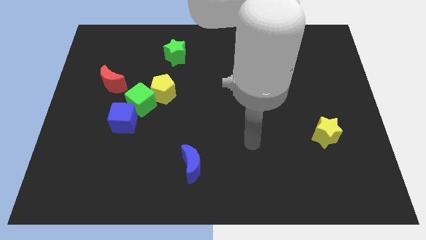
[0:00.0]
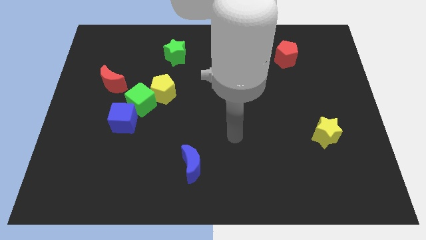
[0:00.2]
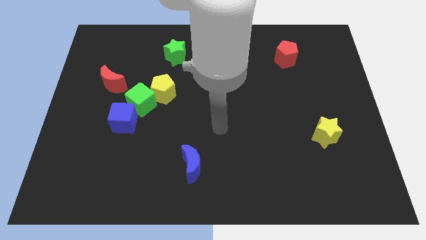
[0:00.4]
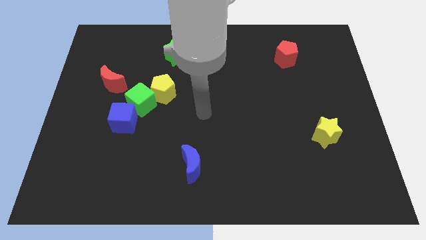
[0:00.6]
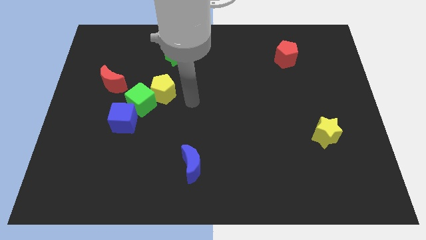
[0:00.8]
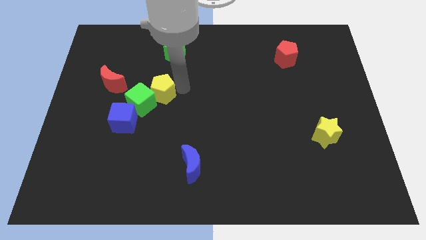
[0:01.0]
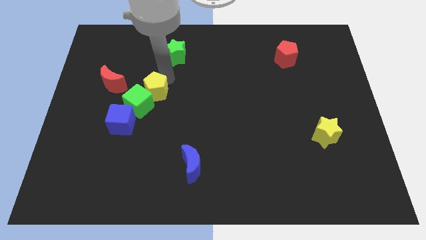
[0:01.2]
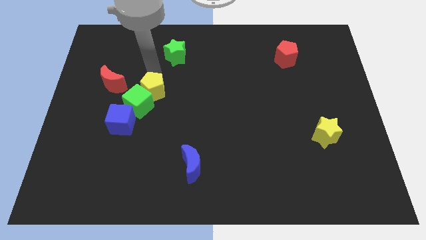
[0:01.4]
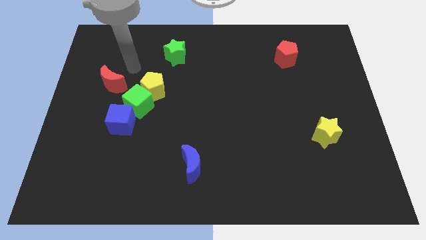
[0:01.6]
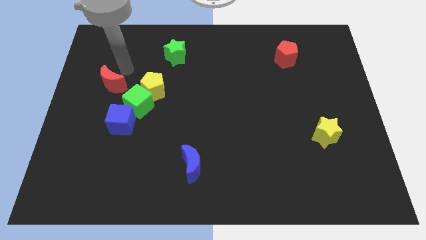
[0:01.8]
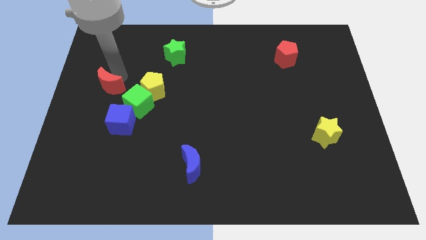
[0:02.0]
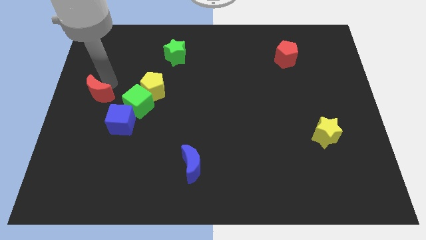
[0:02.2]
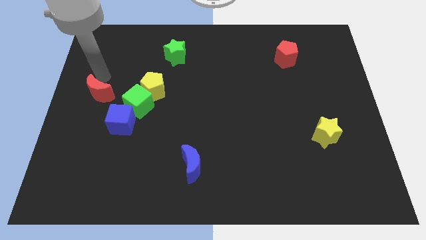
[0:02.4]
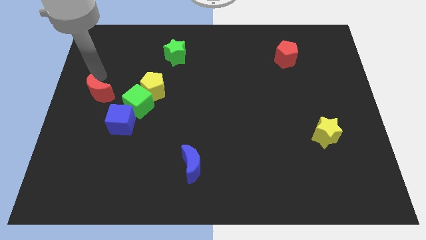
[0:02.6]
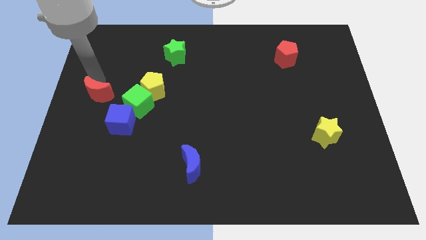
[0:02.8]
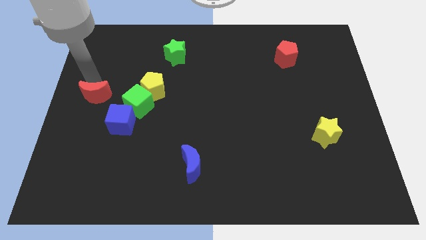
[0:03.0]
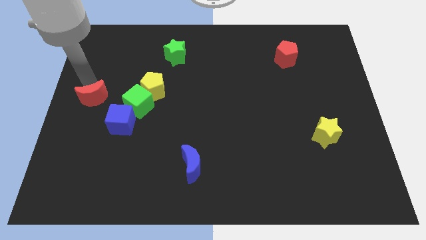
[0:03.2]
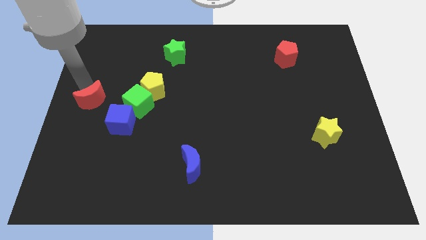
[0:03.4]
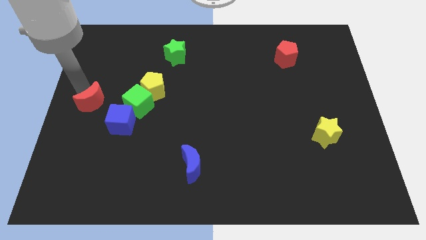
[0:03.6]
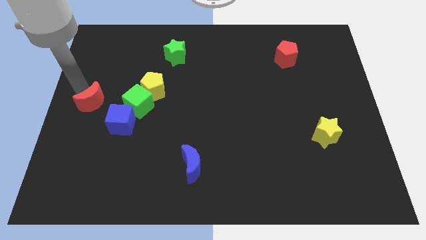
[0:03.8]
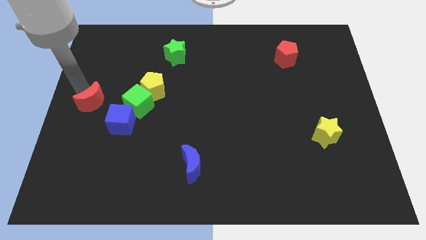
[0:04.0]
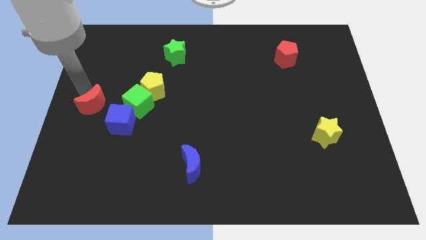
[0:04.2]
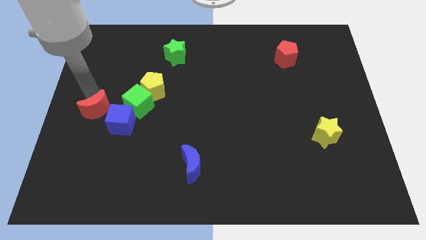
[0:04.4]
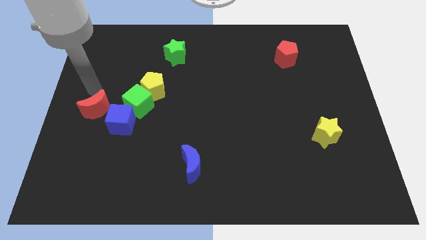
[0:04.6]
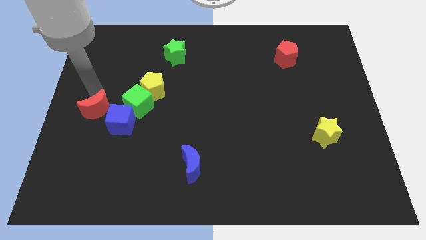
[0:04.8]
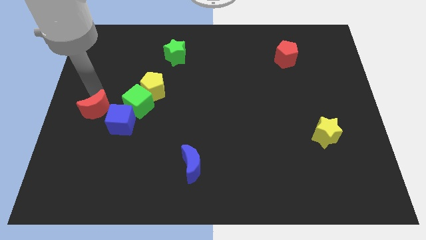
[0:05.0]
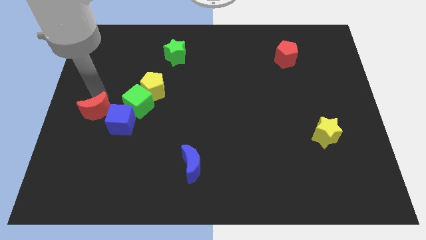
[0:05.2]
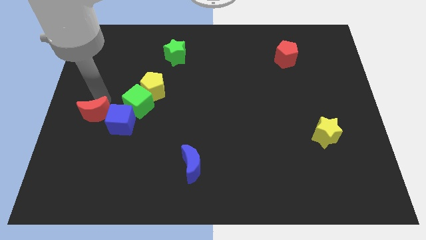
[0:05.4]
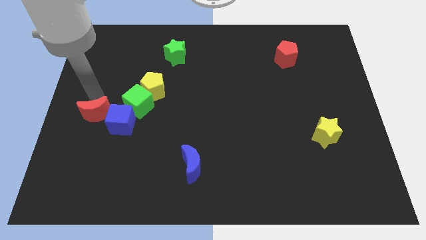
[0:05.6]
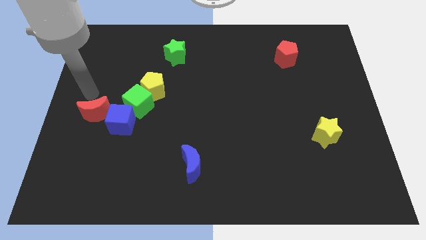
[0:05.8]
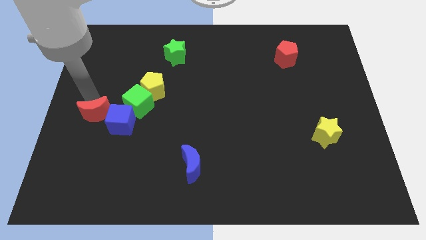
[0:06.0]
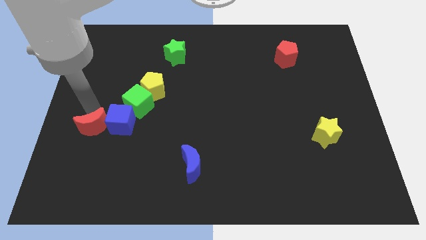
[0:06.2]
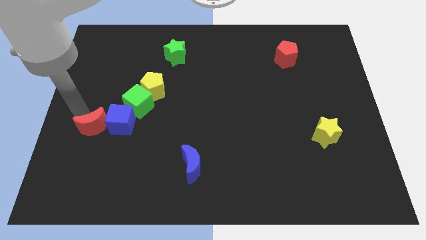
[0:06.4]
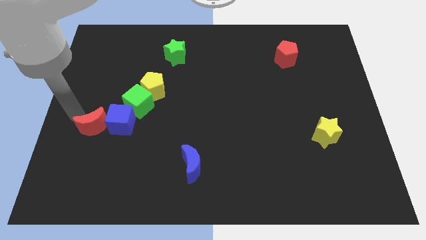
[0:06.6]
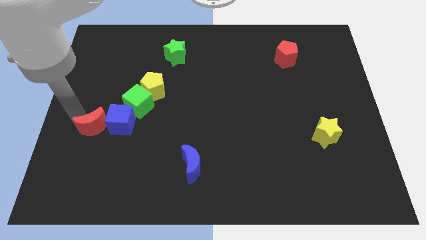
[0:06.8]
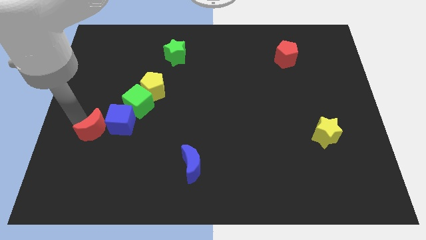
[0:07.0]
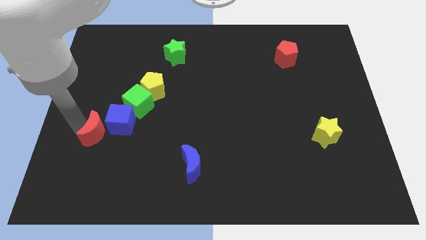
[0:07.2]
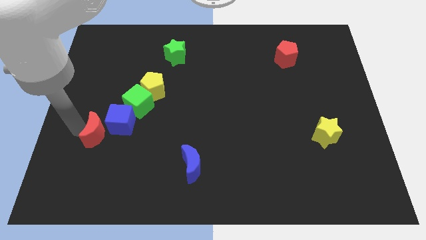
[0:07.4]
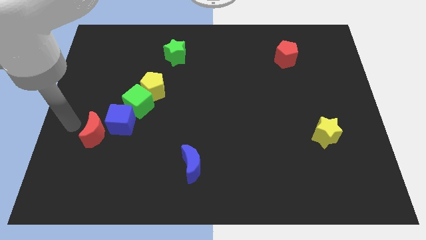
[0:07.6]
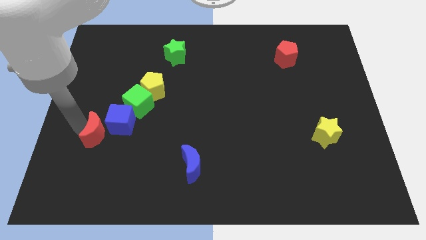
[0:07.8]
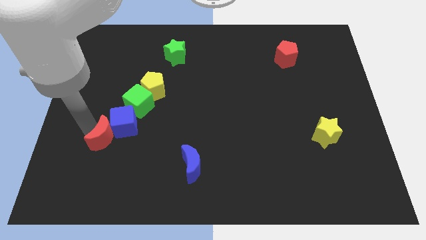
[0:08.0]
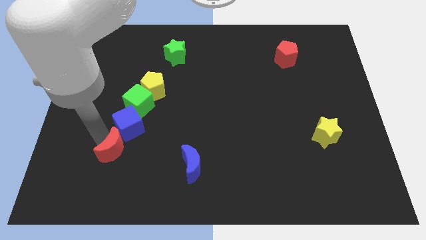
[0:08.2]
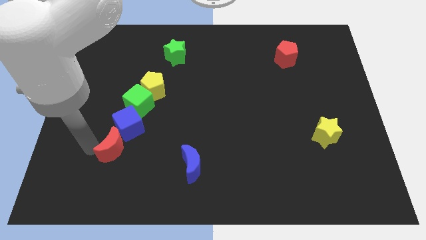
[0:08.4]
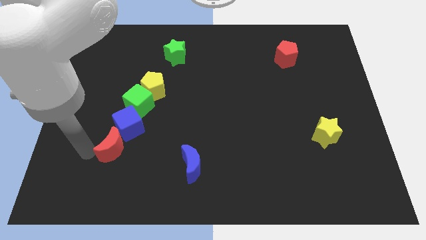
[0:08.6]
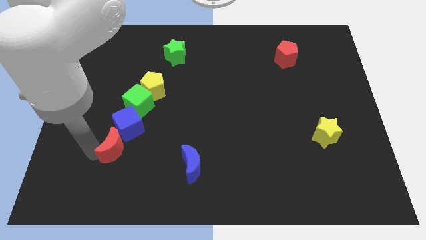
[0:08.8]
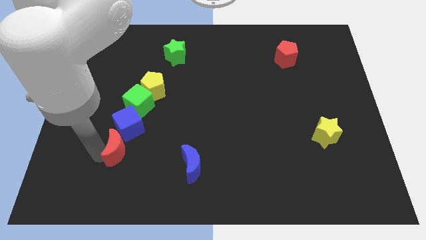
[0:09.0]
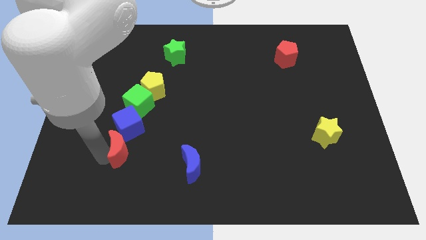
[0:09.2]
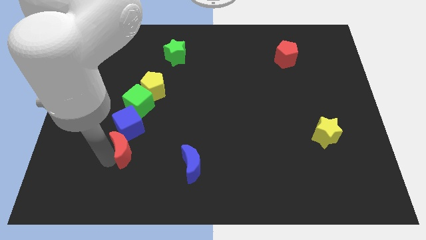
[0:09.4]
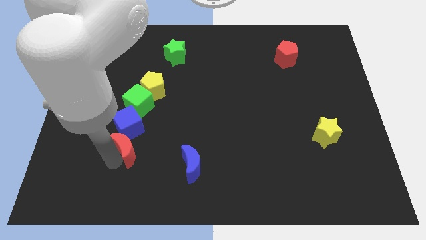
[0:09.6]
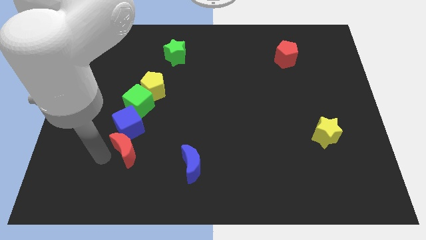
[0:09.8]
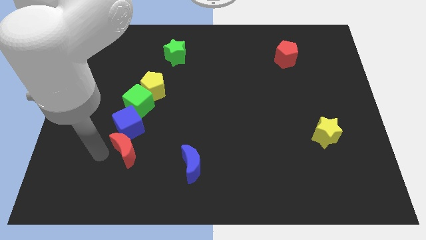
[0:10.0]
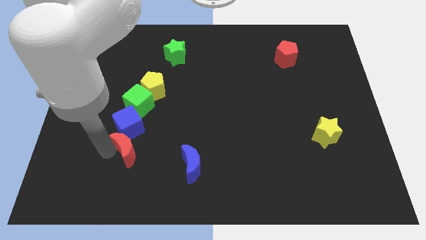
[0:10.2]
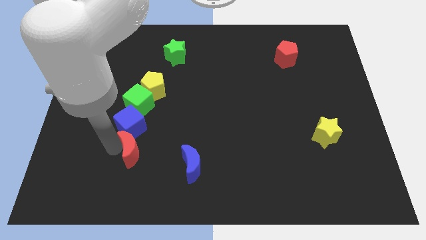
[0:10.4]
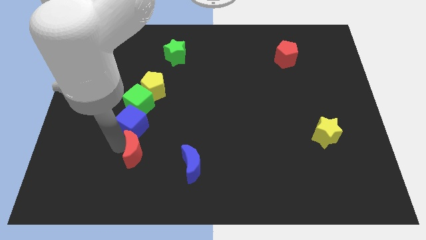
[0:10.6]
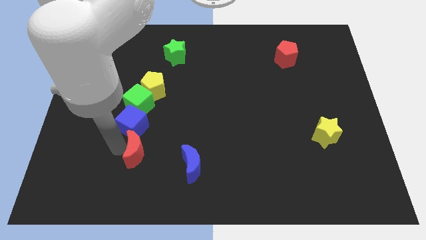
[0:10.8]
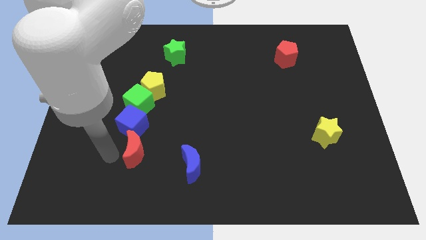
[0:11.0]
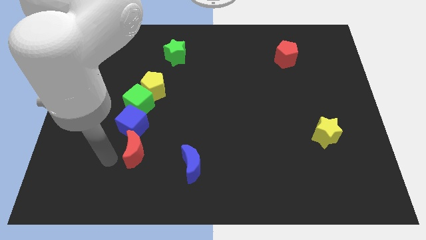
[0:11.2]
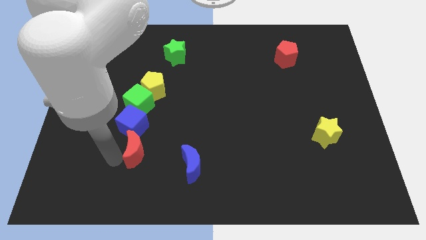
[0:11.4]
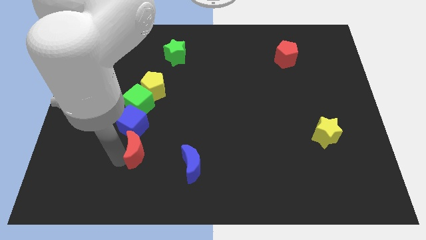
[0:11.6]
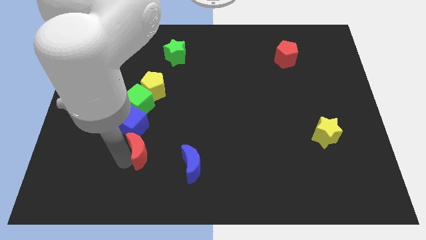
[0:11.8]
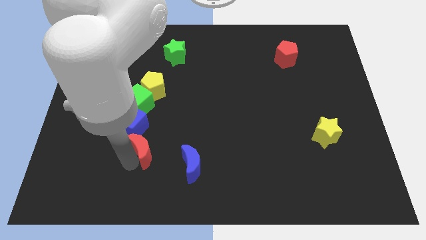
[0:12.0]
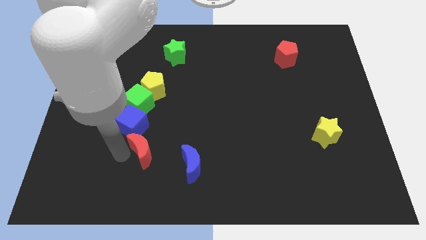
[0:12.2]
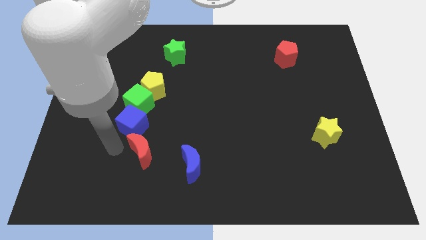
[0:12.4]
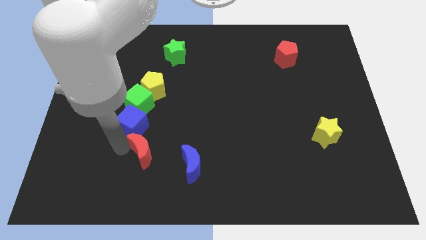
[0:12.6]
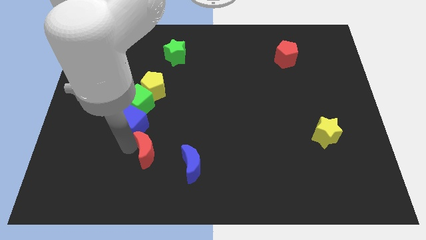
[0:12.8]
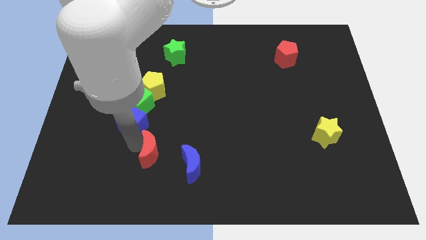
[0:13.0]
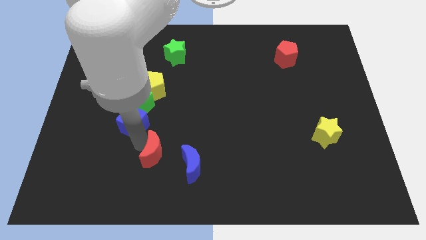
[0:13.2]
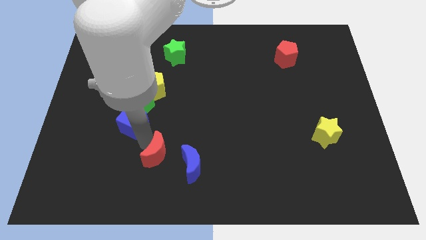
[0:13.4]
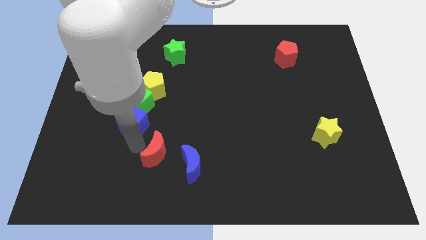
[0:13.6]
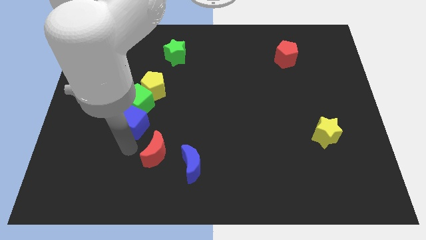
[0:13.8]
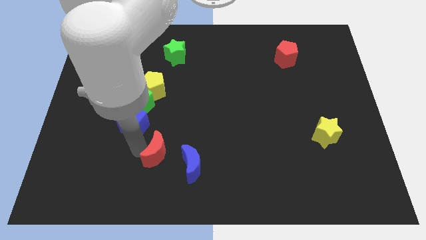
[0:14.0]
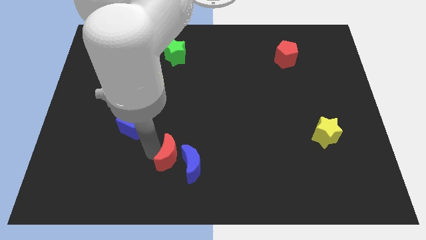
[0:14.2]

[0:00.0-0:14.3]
move the red moon next to the blue moon

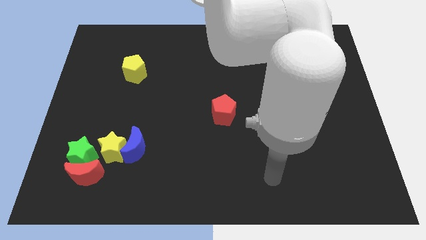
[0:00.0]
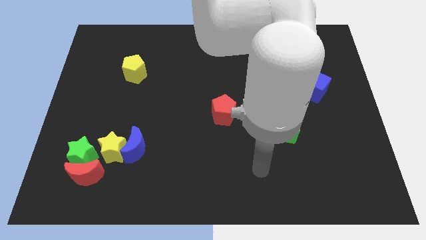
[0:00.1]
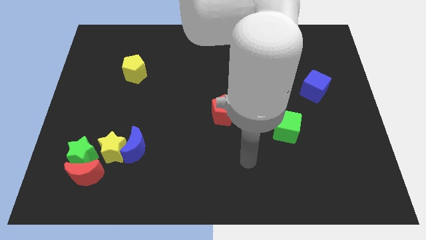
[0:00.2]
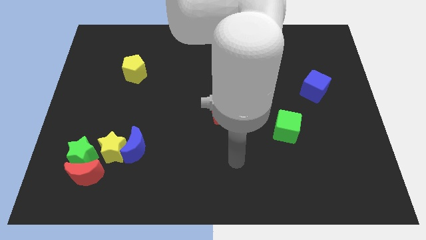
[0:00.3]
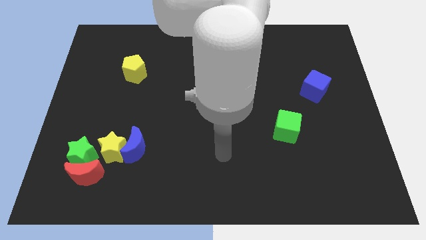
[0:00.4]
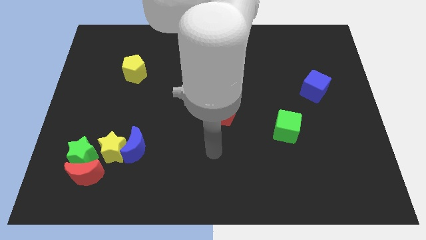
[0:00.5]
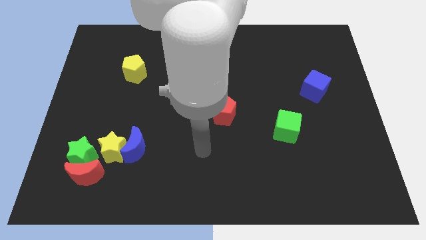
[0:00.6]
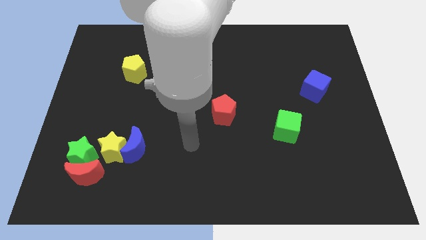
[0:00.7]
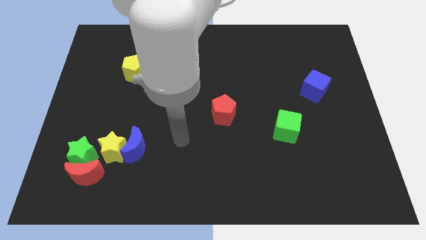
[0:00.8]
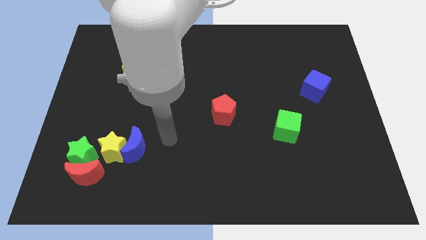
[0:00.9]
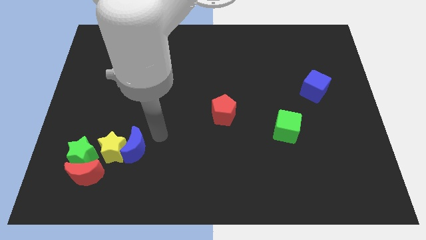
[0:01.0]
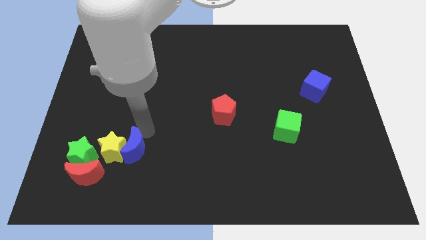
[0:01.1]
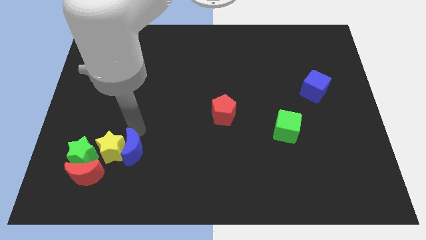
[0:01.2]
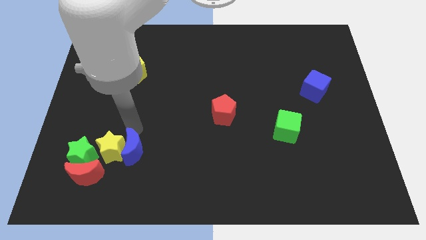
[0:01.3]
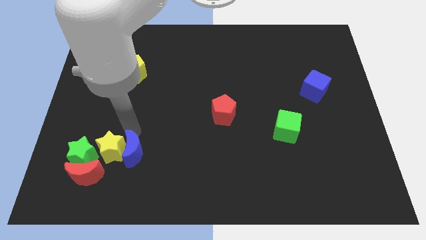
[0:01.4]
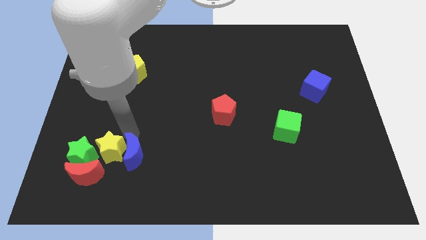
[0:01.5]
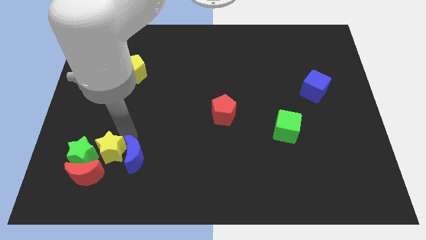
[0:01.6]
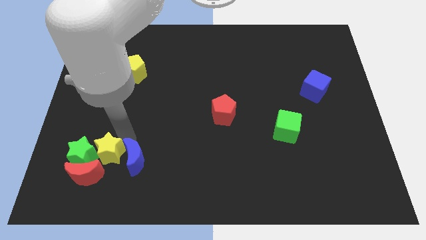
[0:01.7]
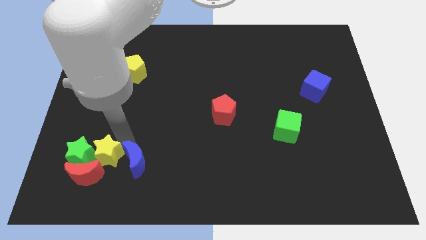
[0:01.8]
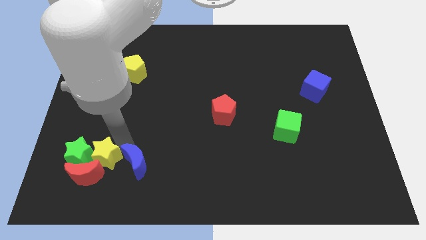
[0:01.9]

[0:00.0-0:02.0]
put the yellow star close to the red moon
